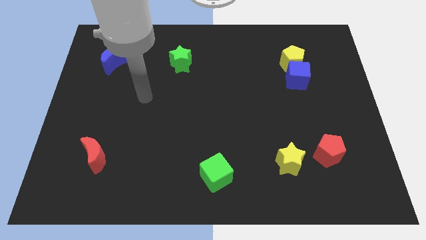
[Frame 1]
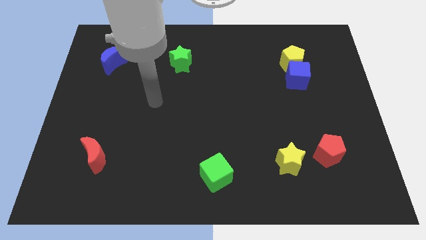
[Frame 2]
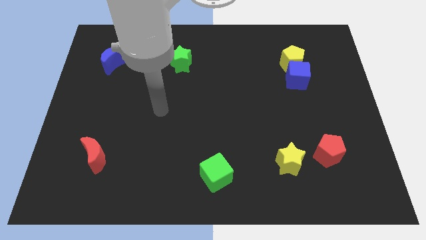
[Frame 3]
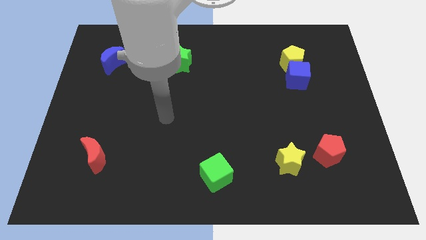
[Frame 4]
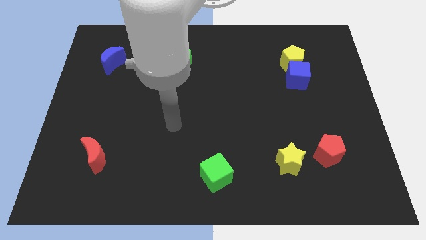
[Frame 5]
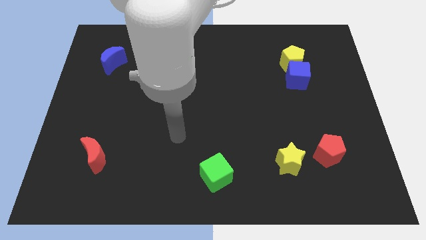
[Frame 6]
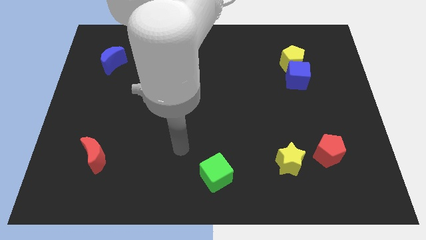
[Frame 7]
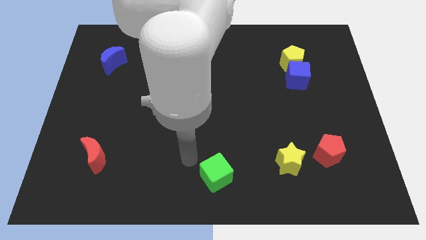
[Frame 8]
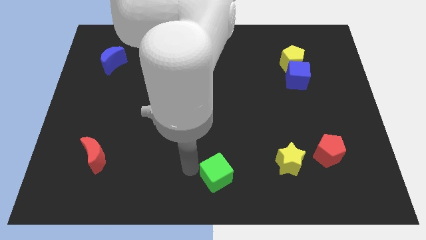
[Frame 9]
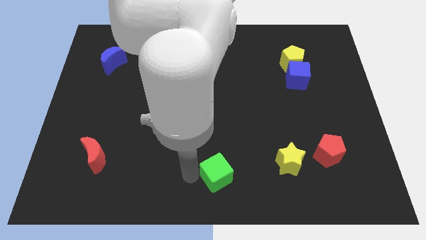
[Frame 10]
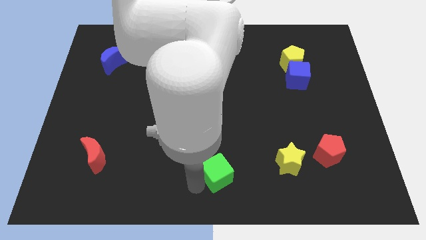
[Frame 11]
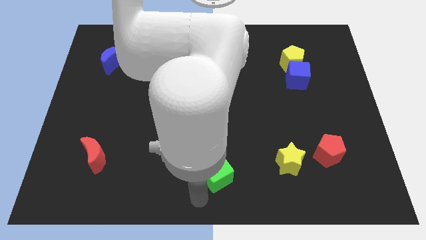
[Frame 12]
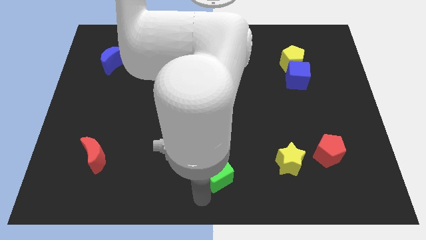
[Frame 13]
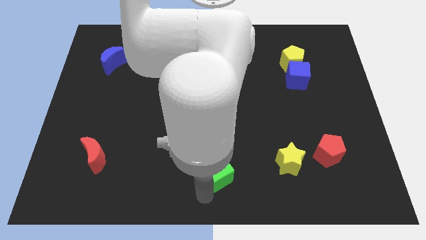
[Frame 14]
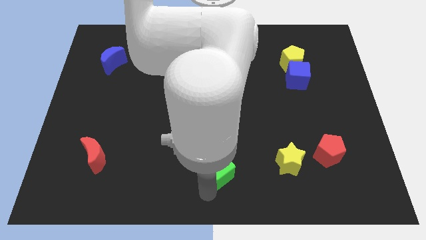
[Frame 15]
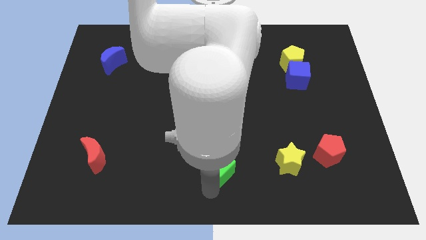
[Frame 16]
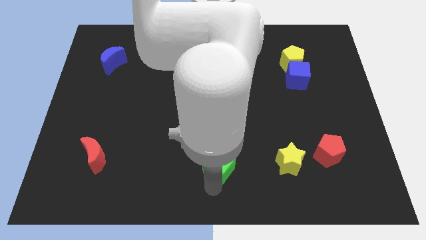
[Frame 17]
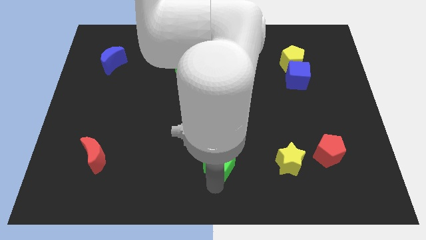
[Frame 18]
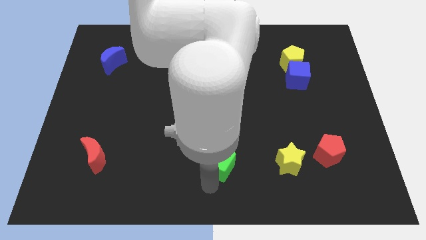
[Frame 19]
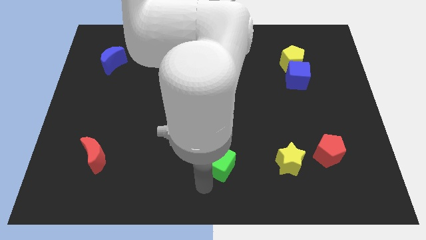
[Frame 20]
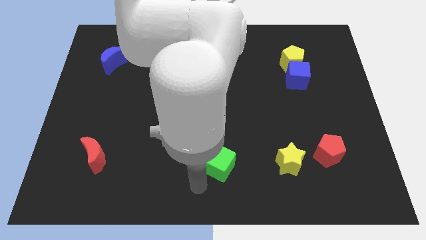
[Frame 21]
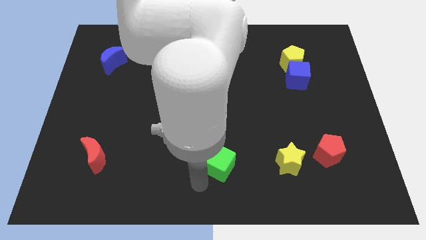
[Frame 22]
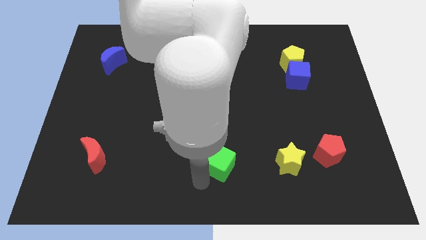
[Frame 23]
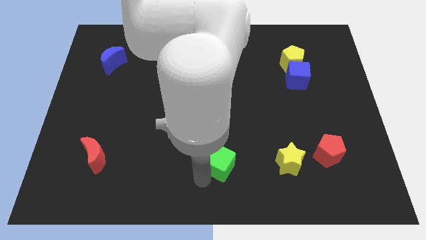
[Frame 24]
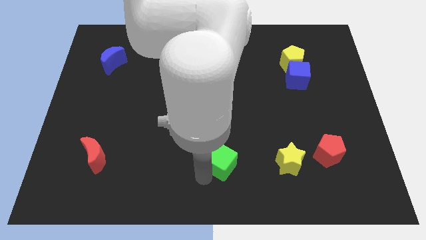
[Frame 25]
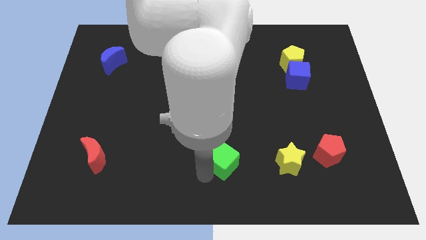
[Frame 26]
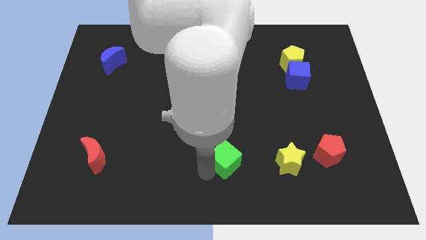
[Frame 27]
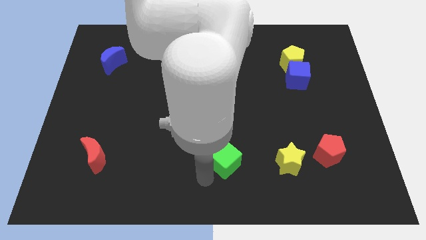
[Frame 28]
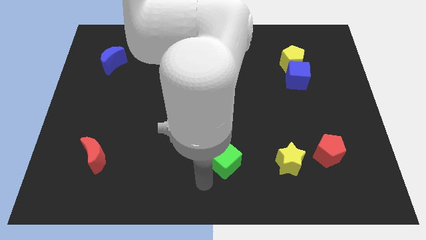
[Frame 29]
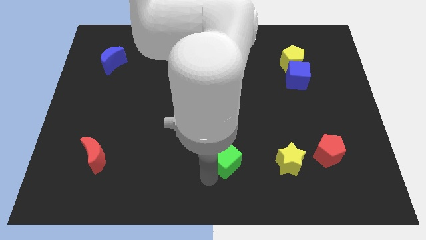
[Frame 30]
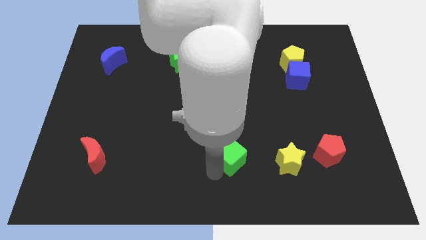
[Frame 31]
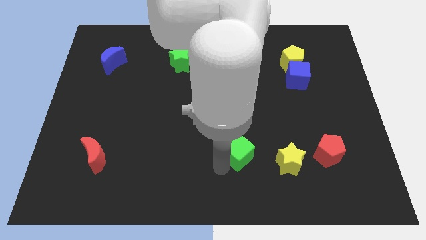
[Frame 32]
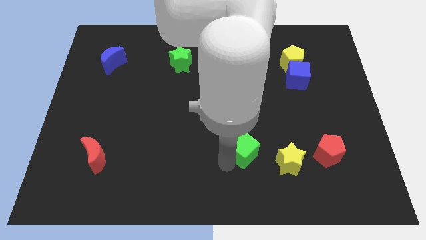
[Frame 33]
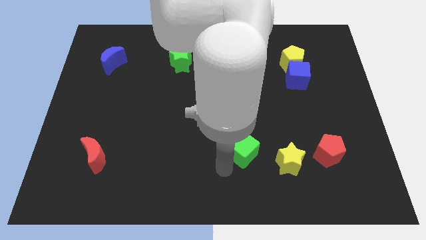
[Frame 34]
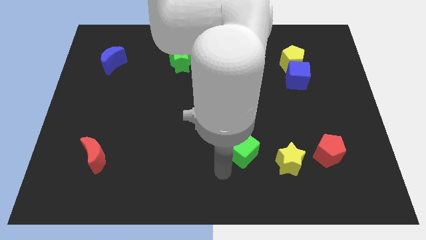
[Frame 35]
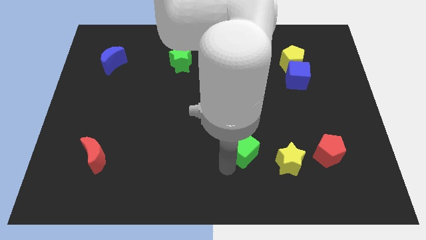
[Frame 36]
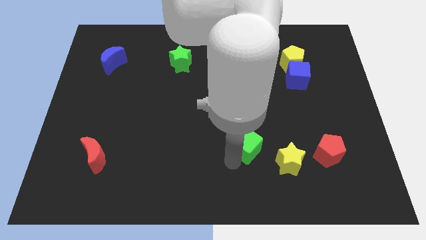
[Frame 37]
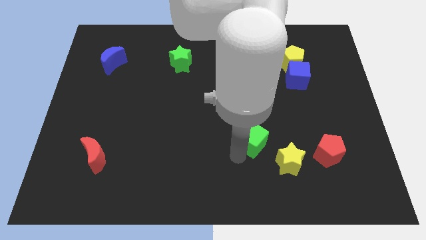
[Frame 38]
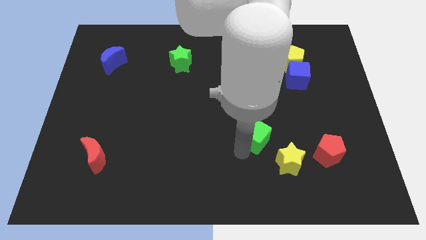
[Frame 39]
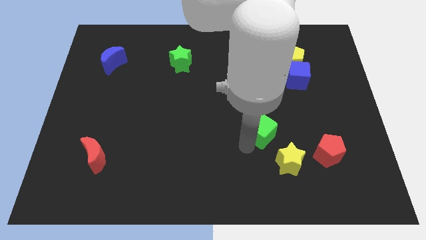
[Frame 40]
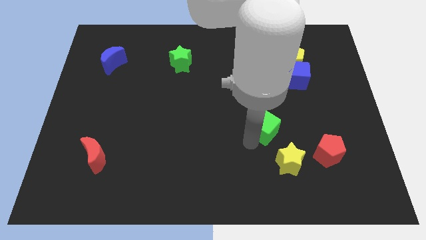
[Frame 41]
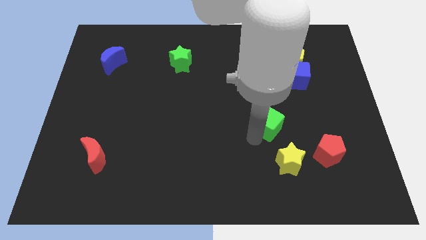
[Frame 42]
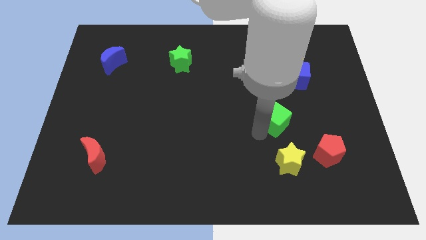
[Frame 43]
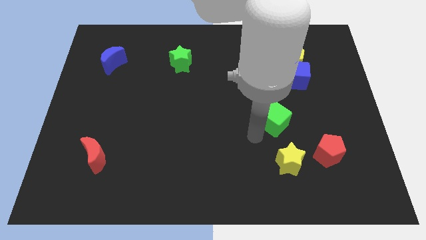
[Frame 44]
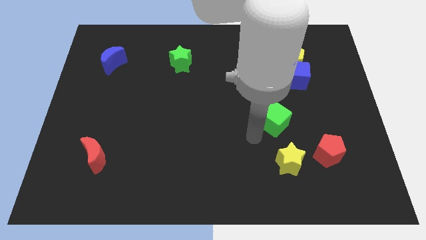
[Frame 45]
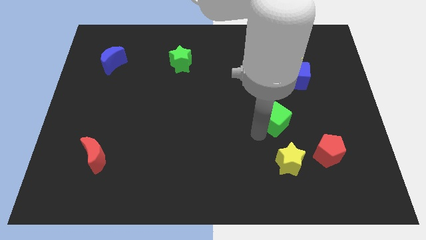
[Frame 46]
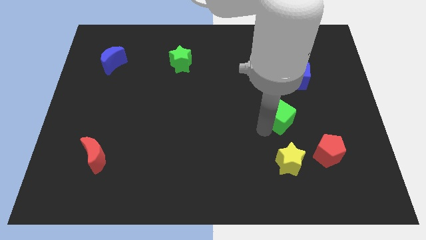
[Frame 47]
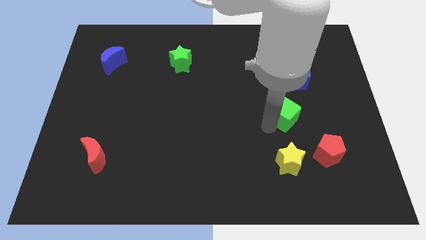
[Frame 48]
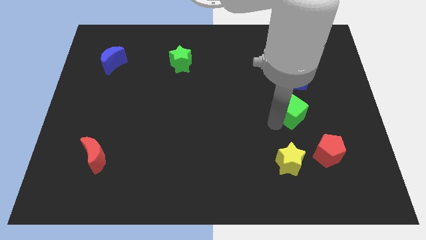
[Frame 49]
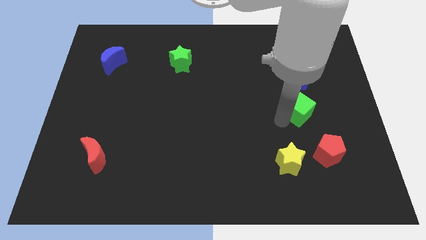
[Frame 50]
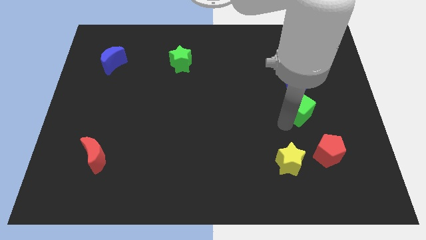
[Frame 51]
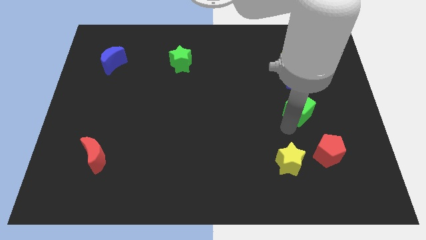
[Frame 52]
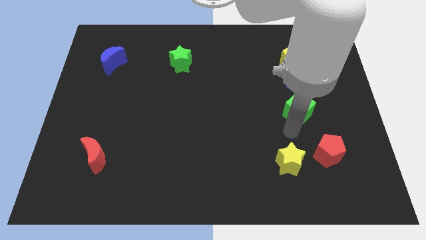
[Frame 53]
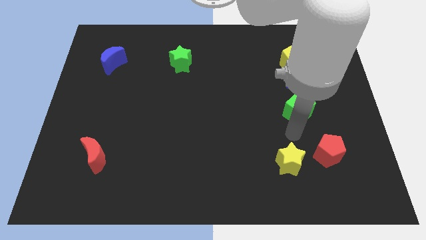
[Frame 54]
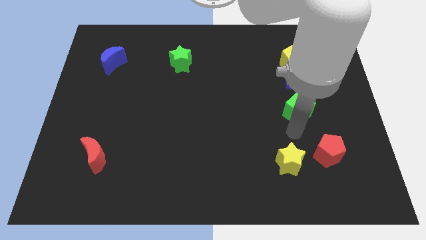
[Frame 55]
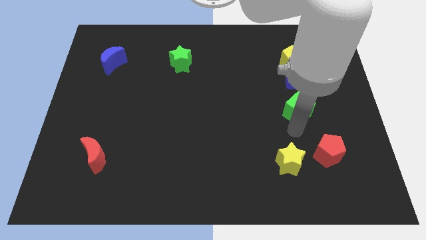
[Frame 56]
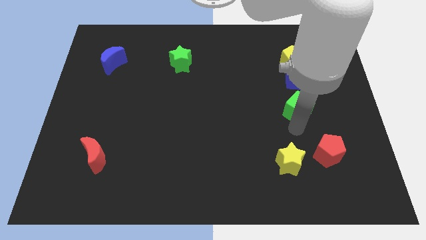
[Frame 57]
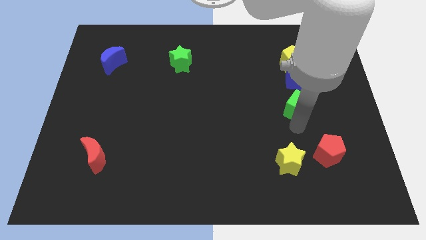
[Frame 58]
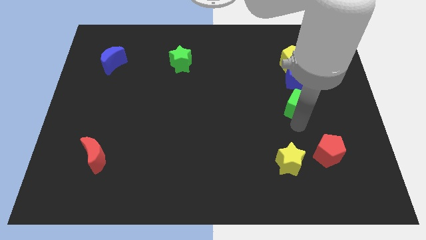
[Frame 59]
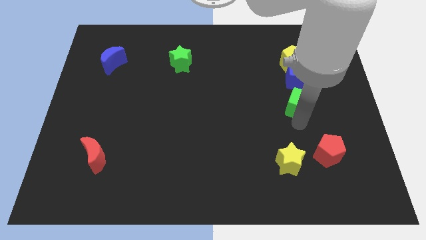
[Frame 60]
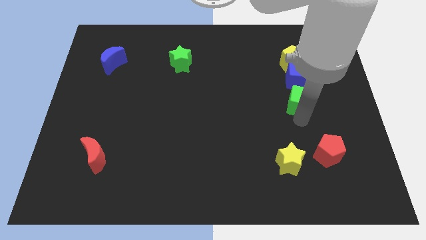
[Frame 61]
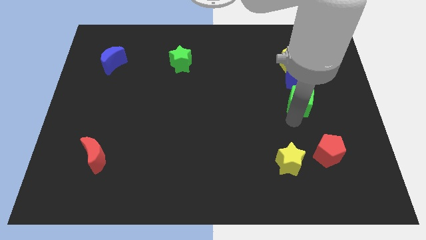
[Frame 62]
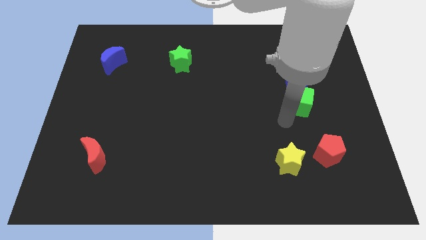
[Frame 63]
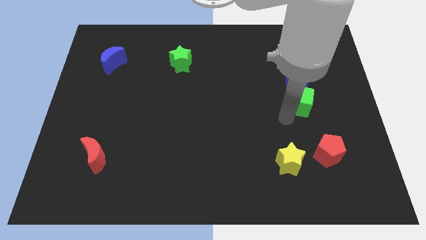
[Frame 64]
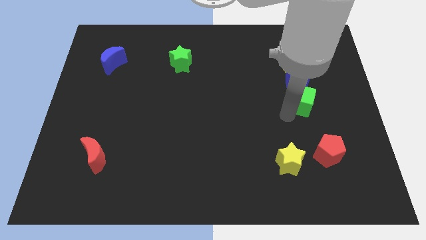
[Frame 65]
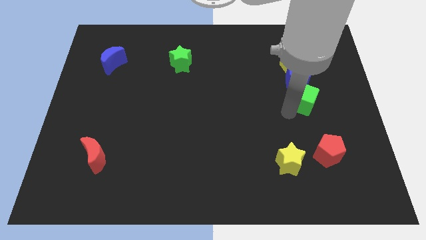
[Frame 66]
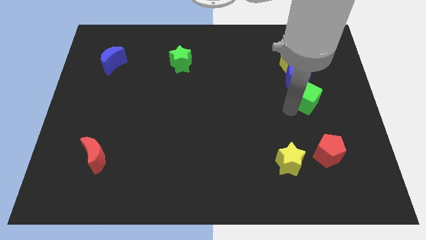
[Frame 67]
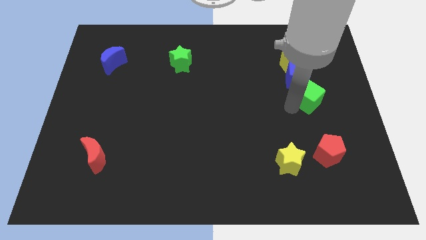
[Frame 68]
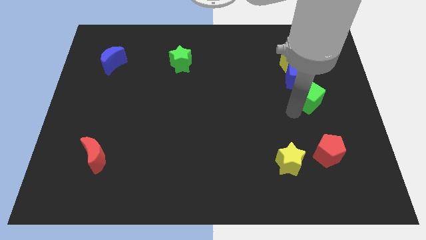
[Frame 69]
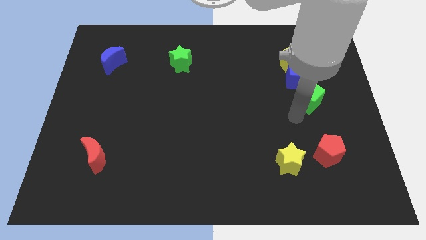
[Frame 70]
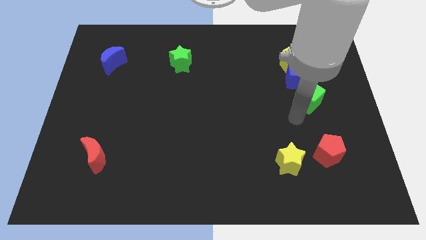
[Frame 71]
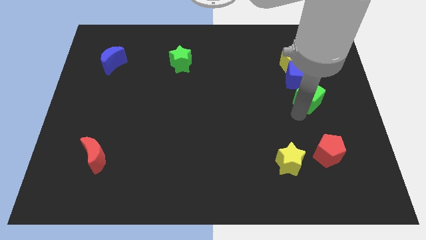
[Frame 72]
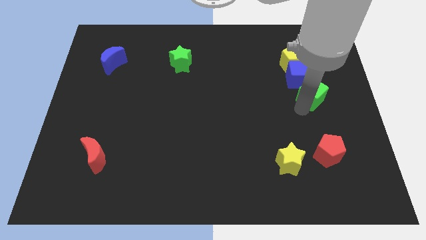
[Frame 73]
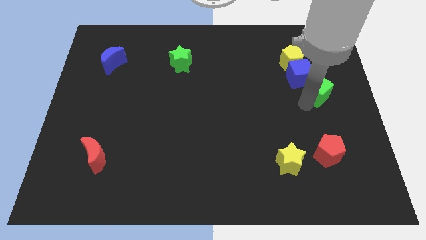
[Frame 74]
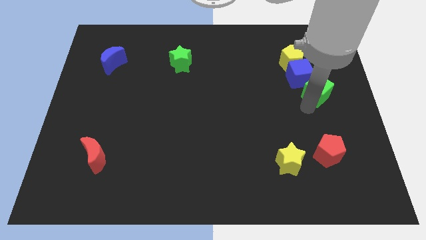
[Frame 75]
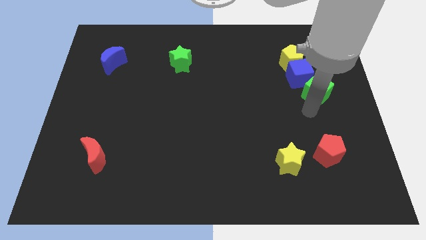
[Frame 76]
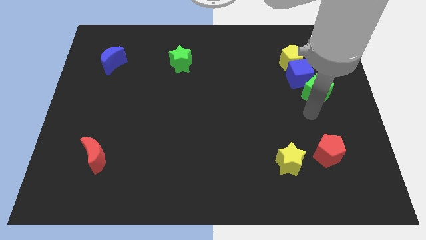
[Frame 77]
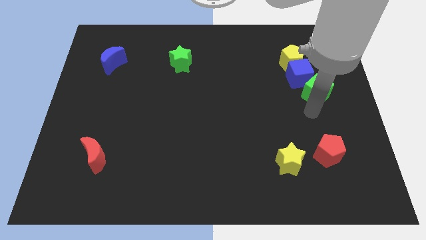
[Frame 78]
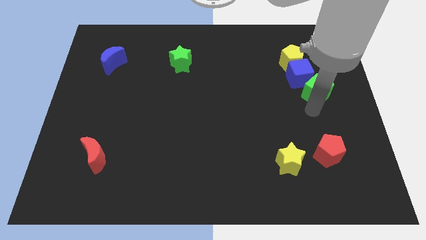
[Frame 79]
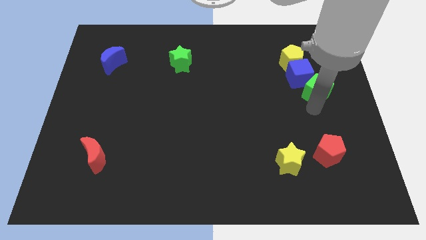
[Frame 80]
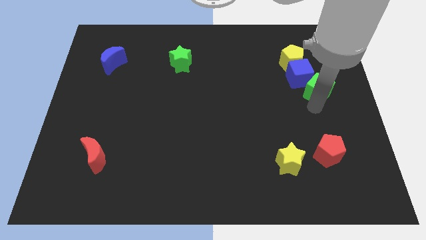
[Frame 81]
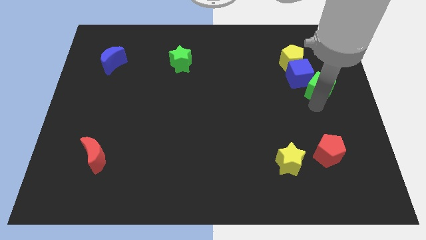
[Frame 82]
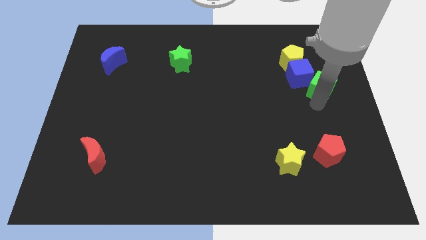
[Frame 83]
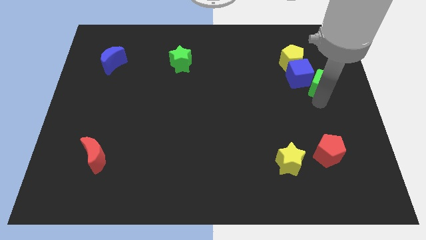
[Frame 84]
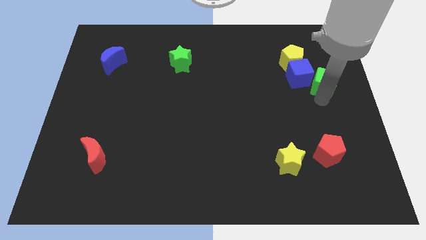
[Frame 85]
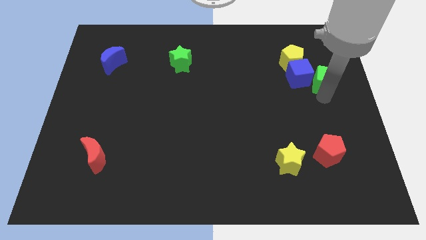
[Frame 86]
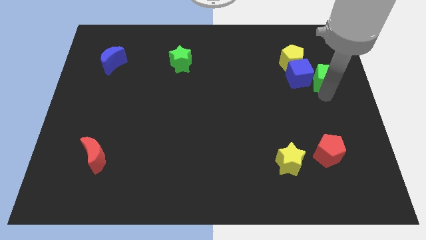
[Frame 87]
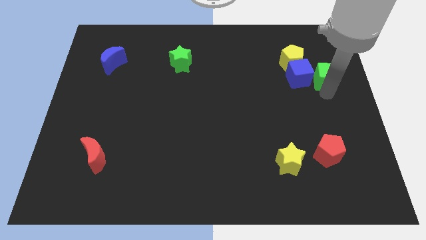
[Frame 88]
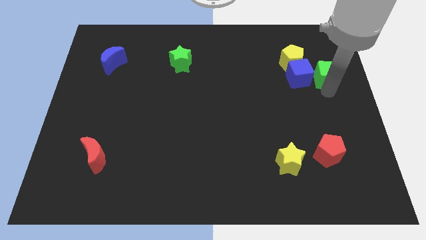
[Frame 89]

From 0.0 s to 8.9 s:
push the green cube to the top right of the blue cube
